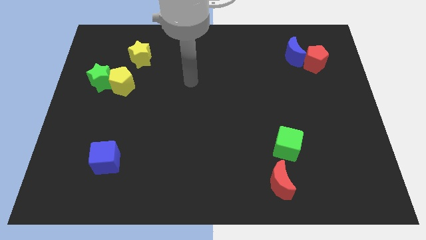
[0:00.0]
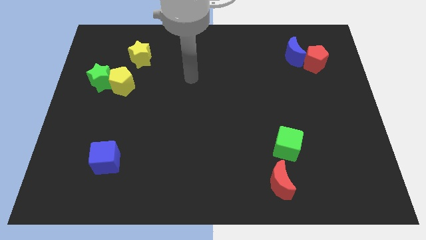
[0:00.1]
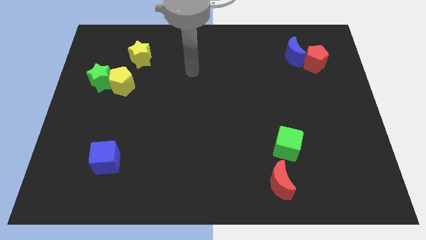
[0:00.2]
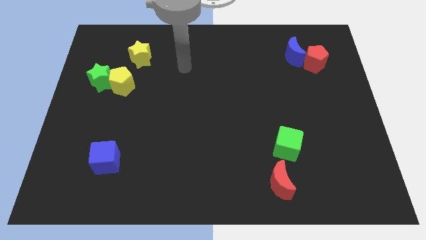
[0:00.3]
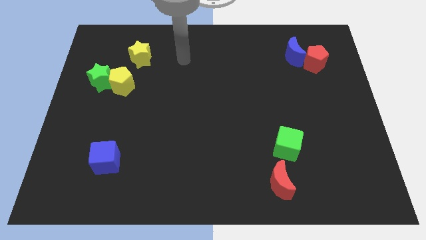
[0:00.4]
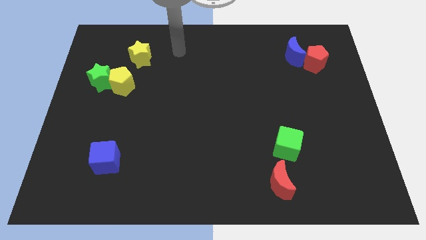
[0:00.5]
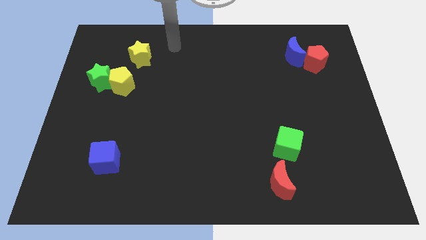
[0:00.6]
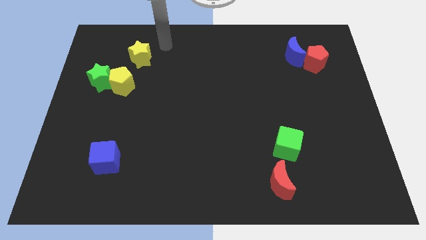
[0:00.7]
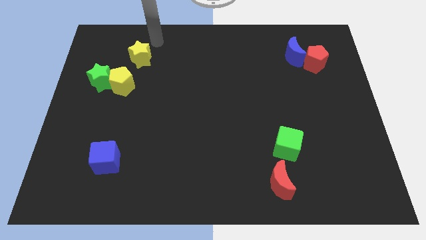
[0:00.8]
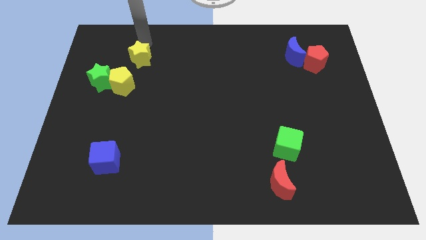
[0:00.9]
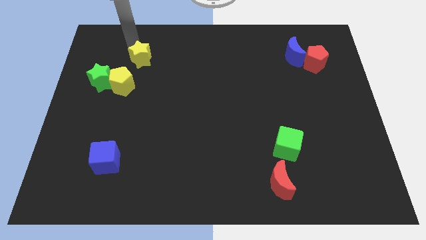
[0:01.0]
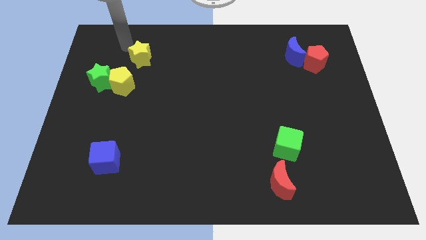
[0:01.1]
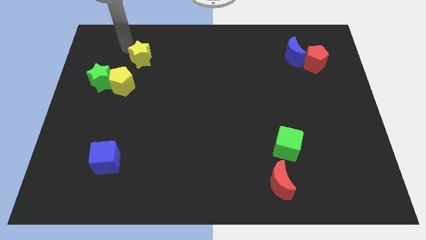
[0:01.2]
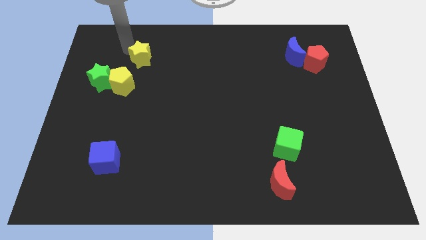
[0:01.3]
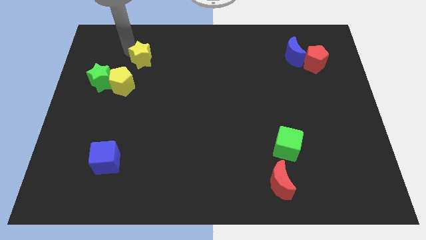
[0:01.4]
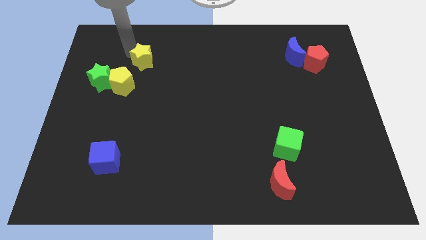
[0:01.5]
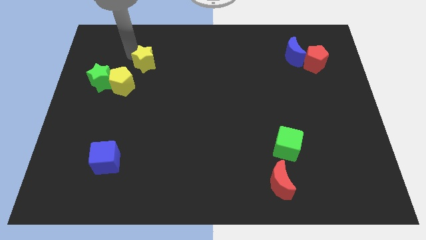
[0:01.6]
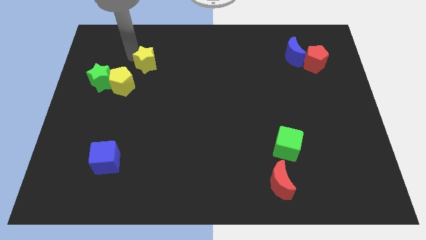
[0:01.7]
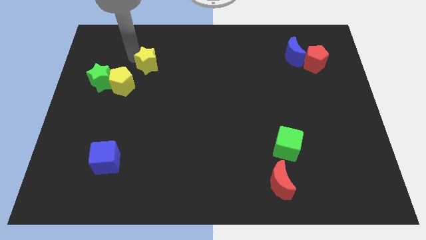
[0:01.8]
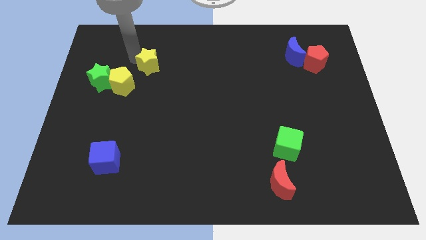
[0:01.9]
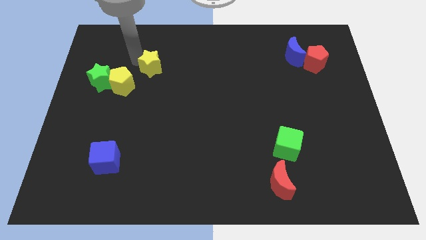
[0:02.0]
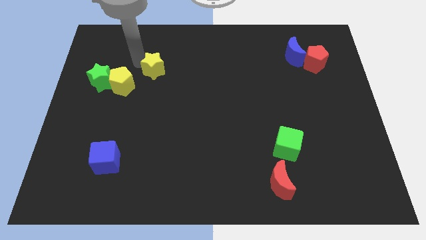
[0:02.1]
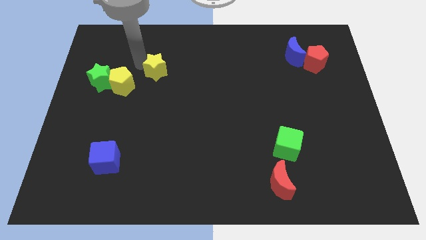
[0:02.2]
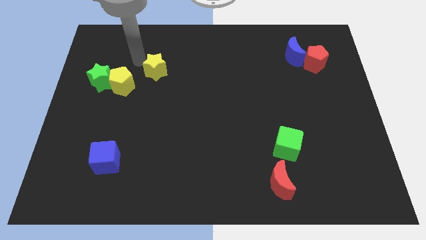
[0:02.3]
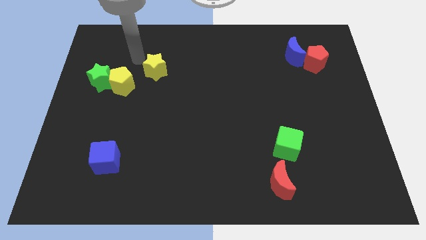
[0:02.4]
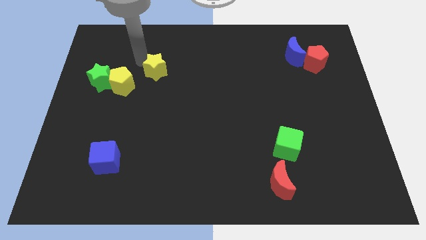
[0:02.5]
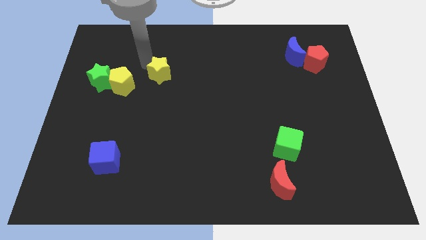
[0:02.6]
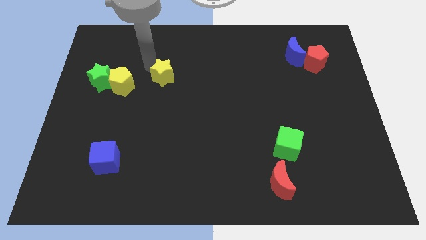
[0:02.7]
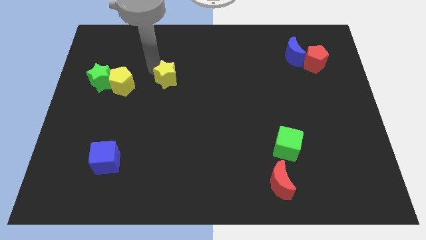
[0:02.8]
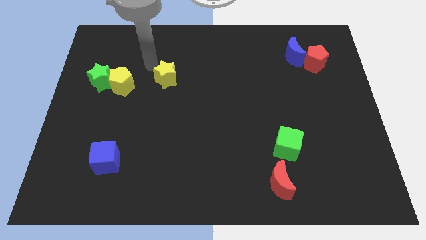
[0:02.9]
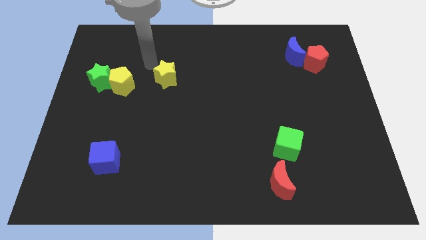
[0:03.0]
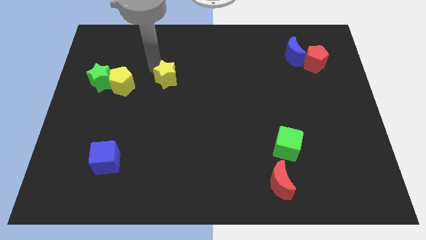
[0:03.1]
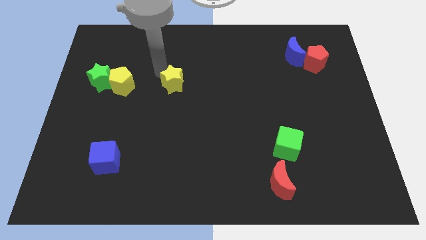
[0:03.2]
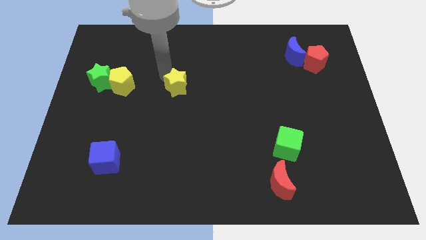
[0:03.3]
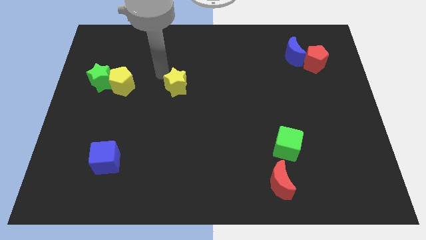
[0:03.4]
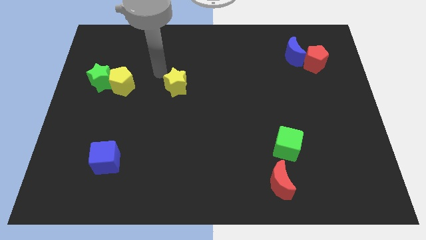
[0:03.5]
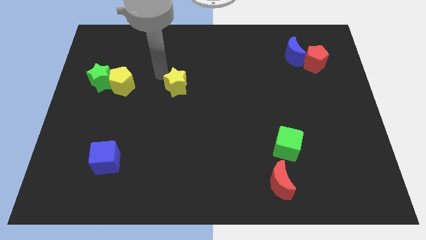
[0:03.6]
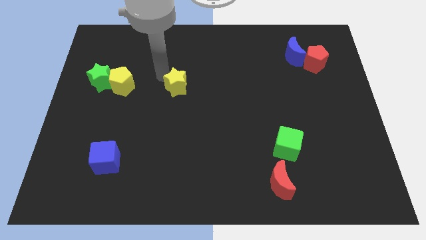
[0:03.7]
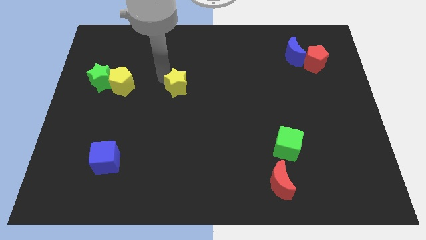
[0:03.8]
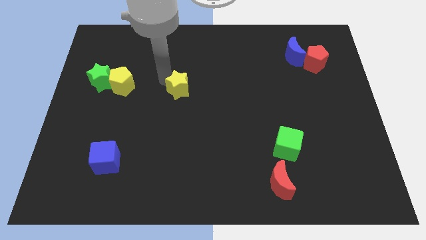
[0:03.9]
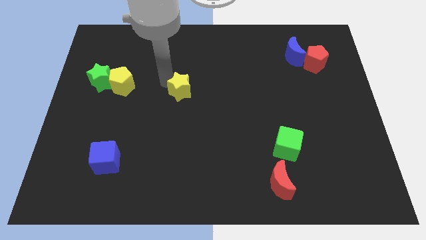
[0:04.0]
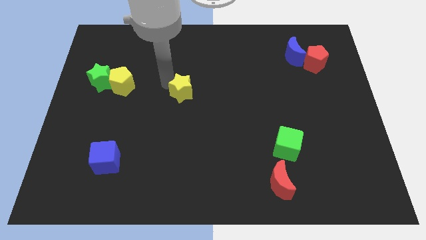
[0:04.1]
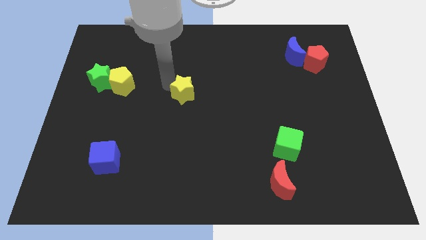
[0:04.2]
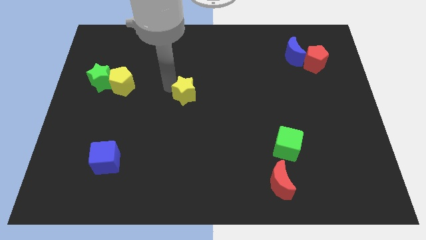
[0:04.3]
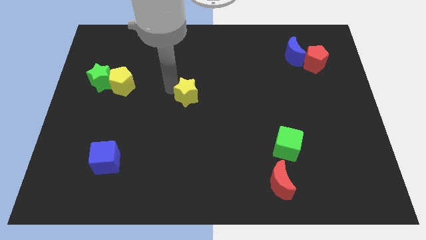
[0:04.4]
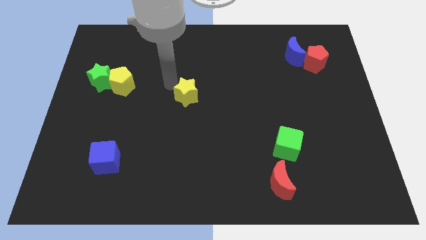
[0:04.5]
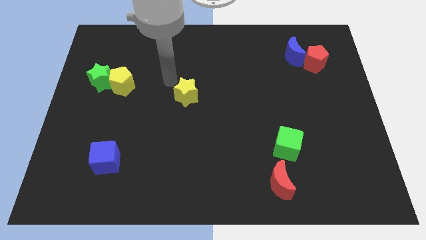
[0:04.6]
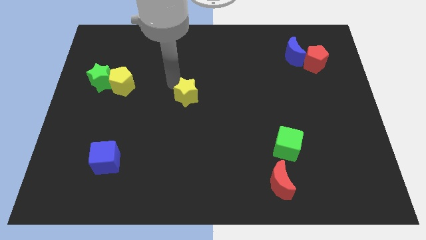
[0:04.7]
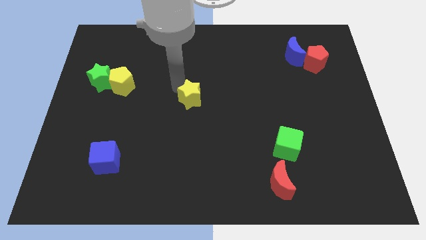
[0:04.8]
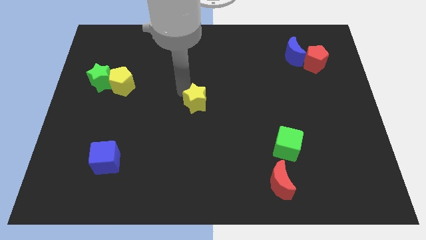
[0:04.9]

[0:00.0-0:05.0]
move the yellow star diagonally down and right

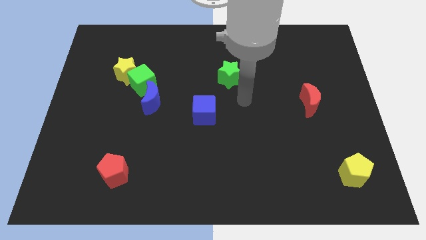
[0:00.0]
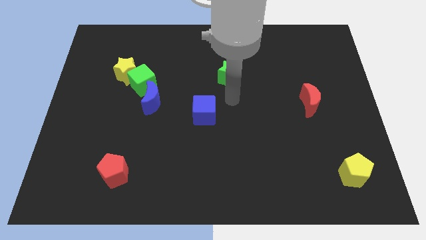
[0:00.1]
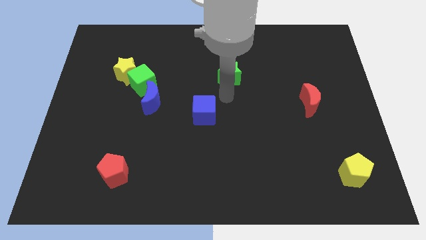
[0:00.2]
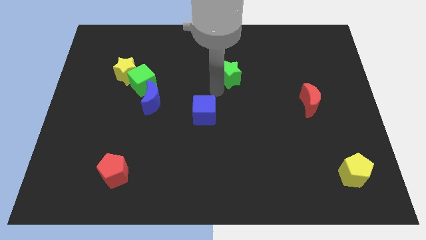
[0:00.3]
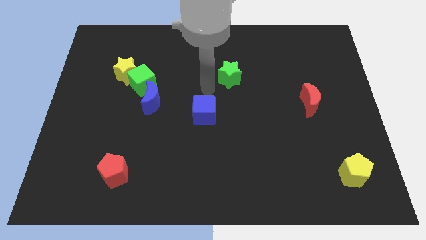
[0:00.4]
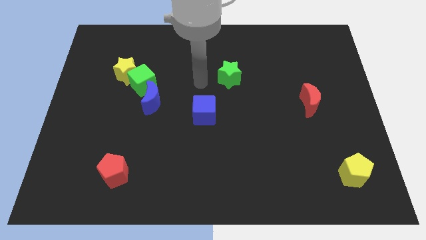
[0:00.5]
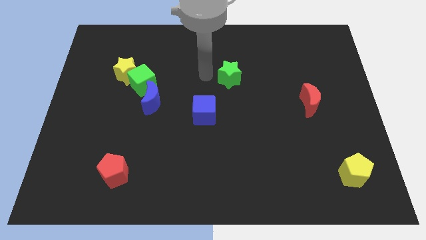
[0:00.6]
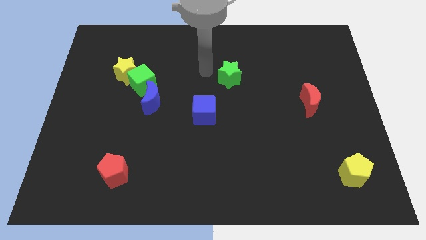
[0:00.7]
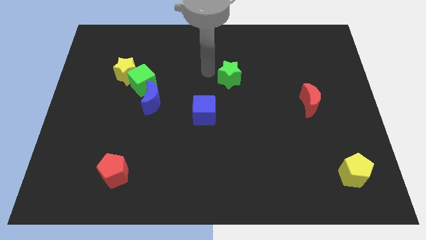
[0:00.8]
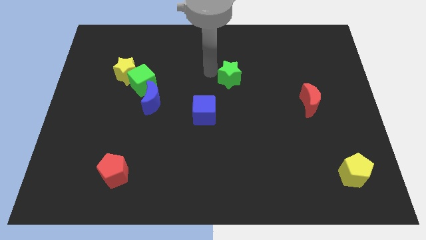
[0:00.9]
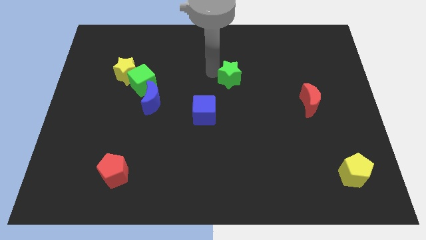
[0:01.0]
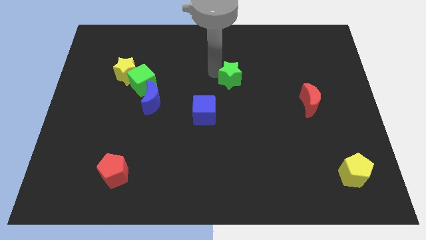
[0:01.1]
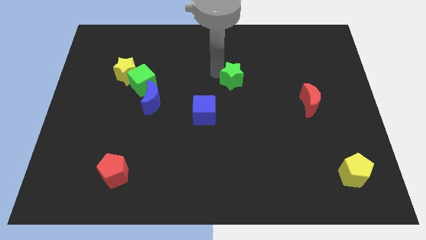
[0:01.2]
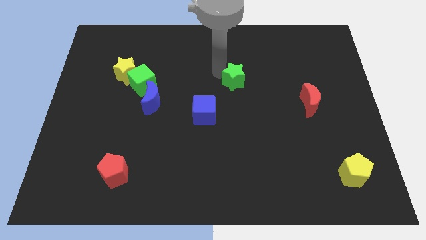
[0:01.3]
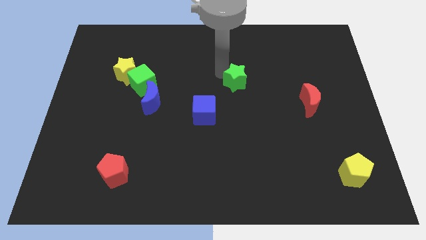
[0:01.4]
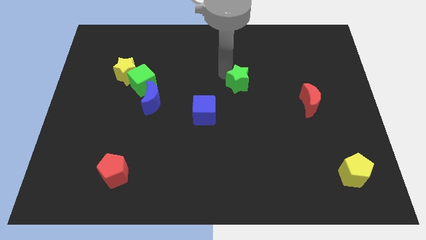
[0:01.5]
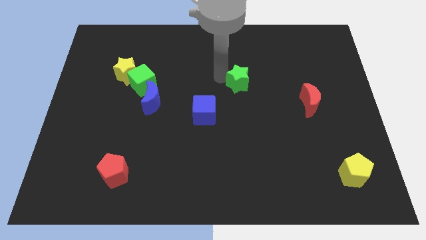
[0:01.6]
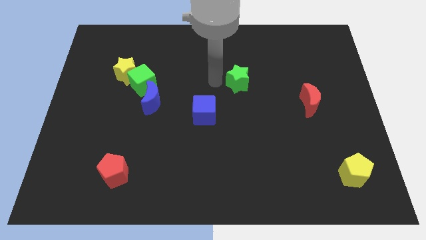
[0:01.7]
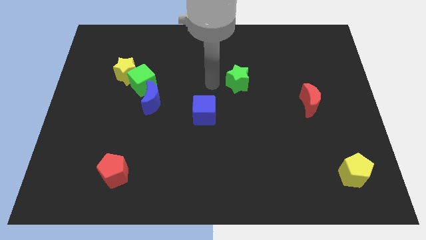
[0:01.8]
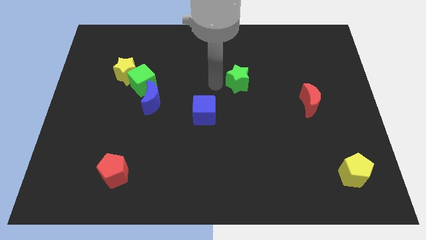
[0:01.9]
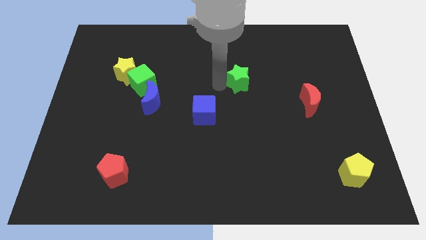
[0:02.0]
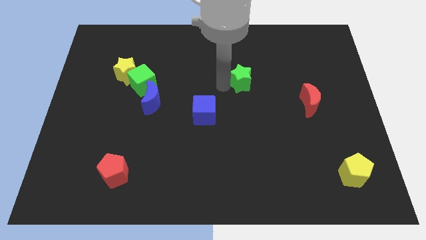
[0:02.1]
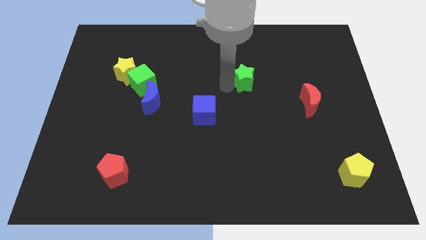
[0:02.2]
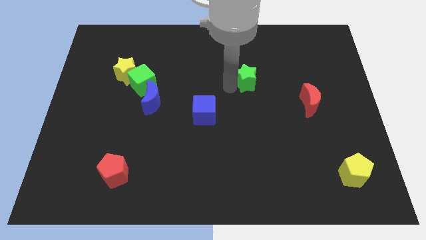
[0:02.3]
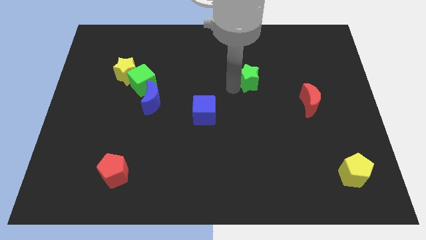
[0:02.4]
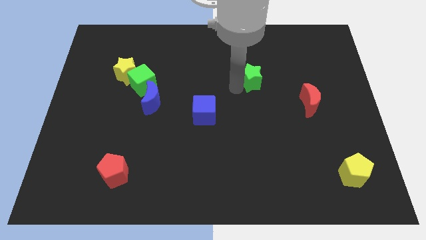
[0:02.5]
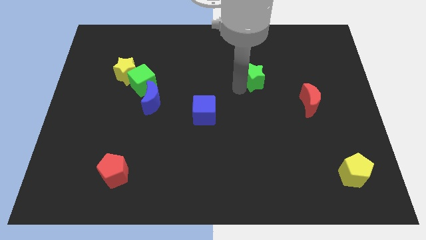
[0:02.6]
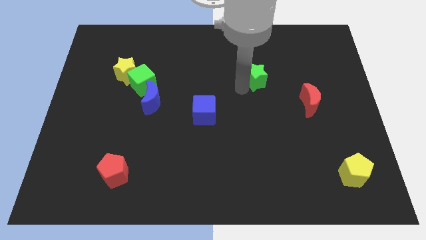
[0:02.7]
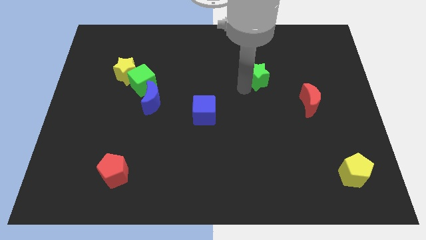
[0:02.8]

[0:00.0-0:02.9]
slightly slide the green star right

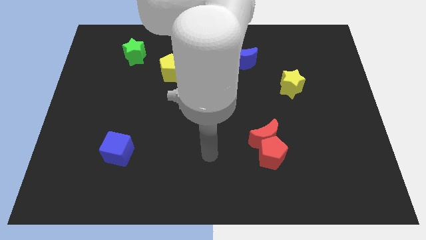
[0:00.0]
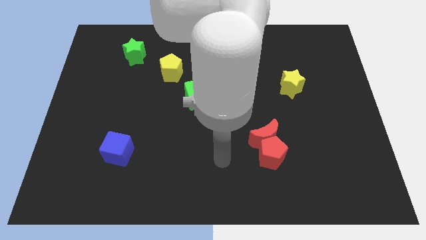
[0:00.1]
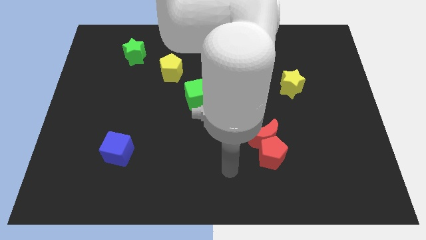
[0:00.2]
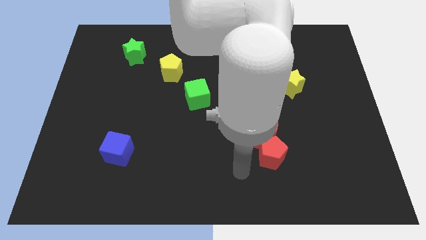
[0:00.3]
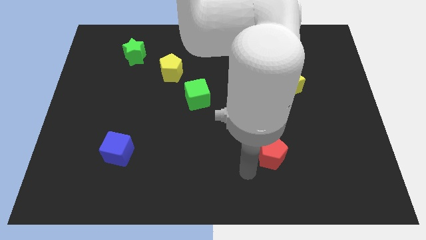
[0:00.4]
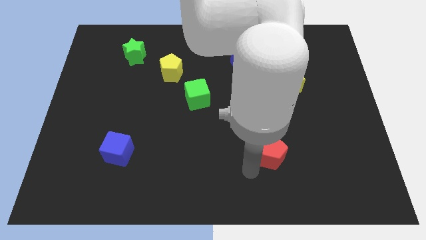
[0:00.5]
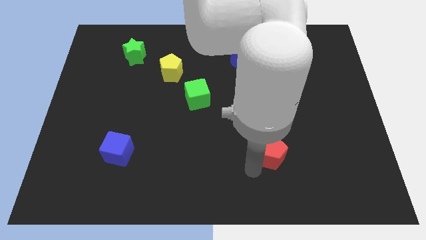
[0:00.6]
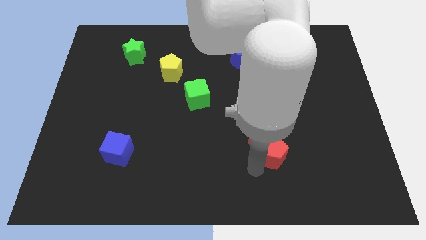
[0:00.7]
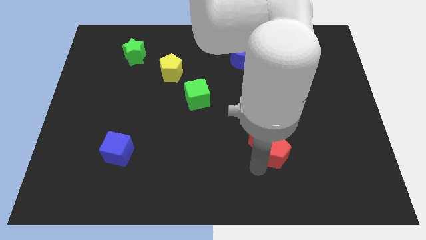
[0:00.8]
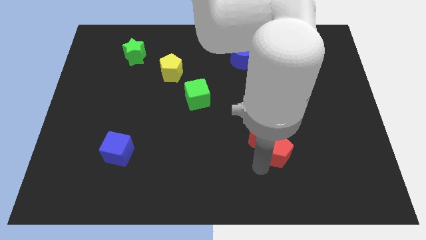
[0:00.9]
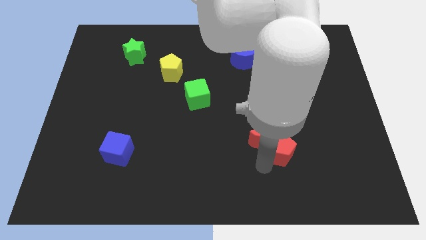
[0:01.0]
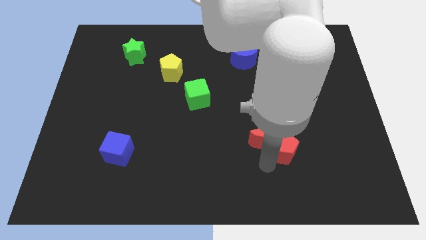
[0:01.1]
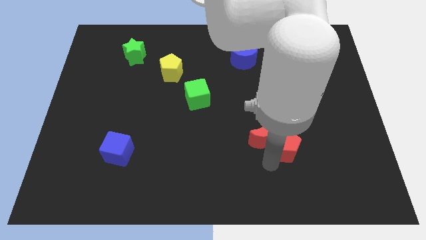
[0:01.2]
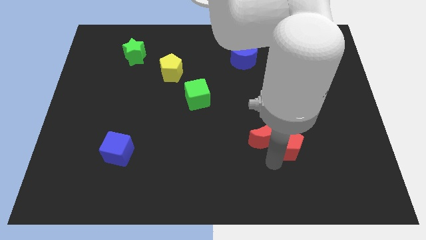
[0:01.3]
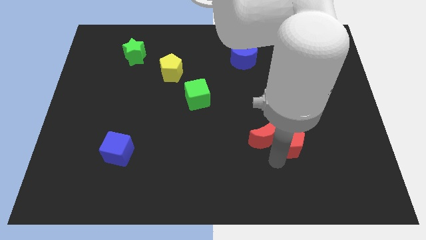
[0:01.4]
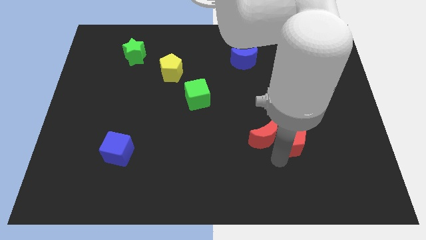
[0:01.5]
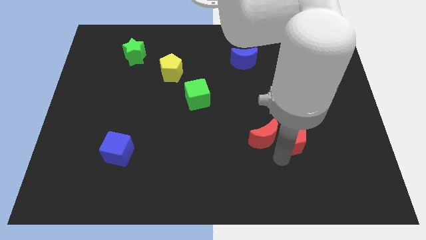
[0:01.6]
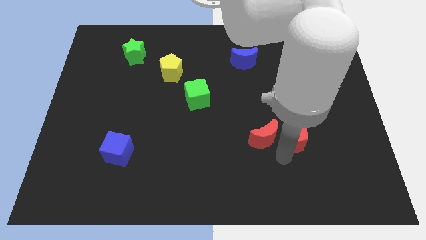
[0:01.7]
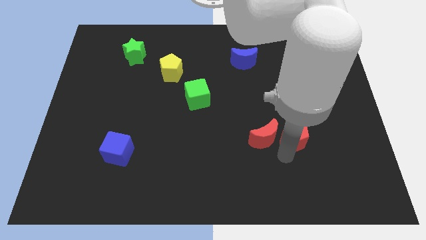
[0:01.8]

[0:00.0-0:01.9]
slightly move the red pentagon upwards and right diagonally
